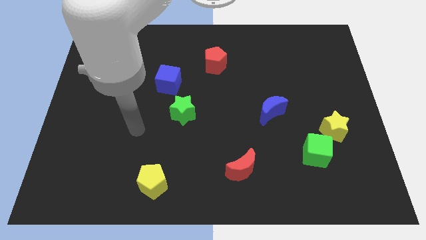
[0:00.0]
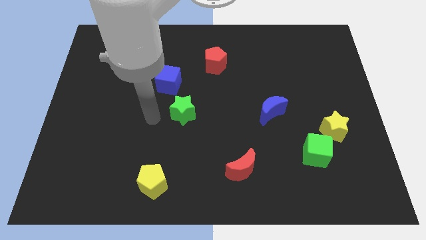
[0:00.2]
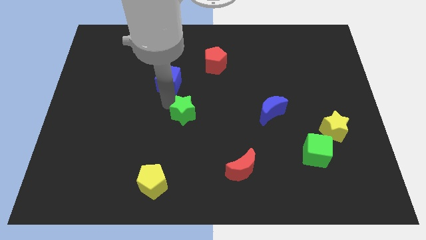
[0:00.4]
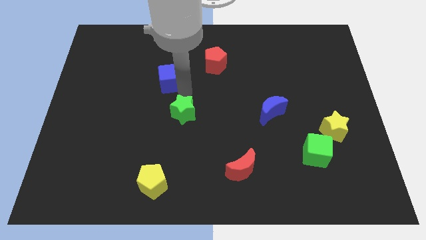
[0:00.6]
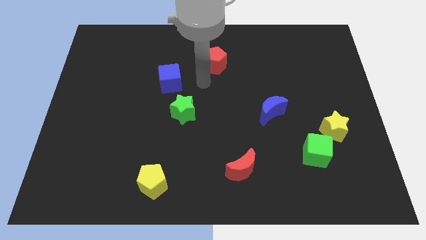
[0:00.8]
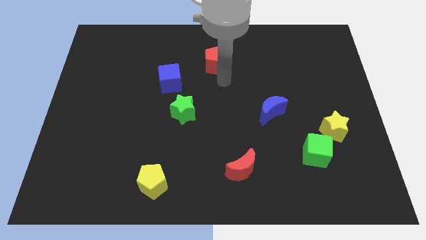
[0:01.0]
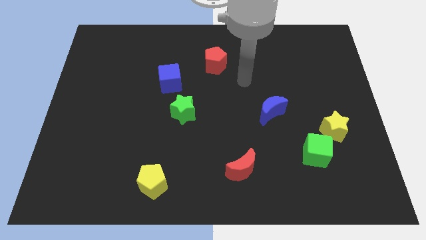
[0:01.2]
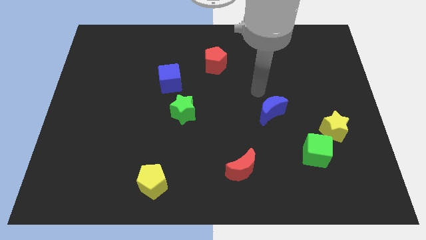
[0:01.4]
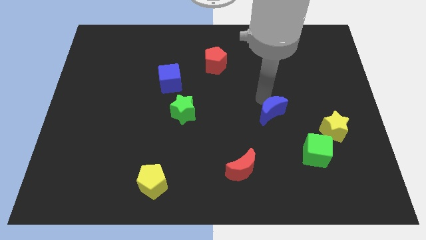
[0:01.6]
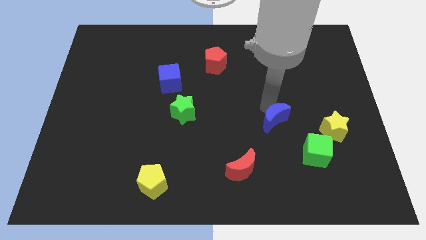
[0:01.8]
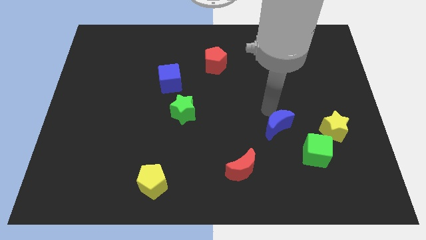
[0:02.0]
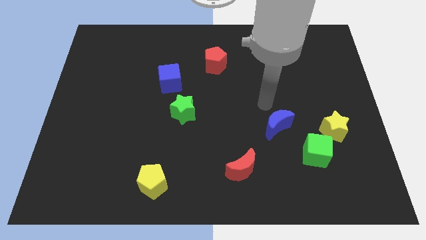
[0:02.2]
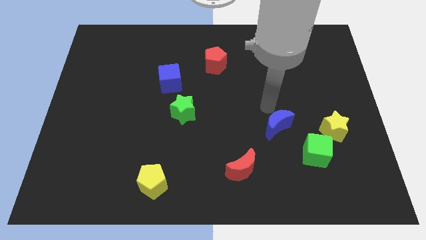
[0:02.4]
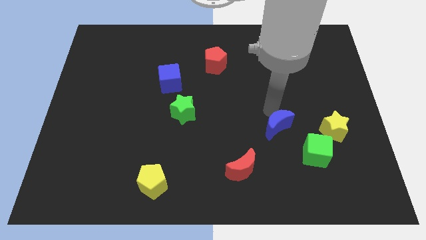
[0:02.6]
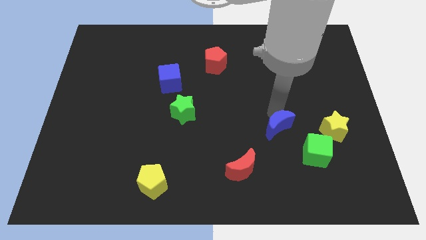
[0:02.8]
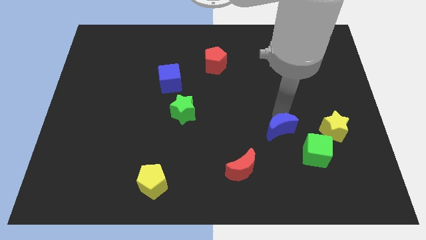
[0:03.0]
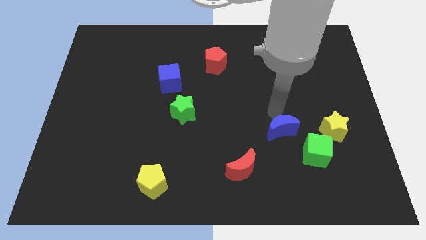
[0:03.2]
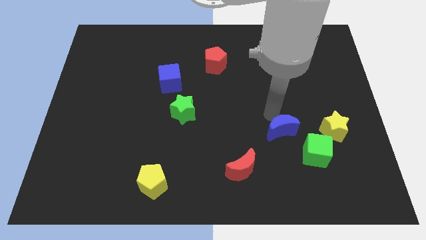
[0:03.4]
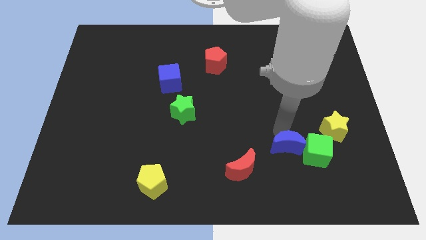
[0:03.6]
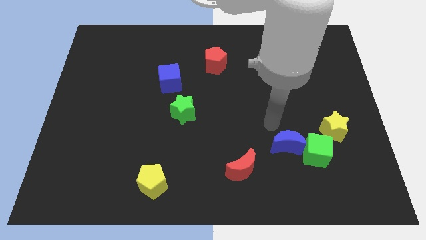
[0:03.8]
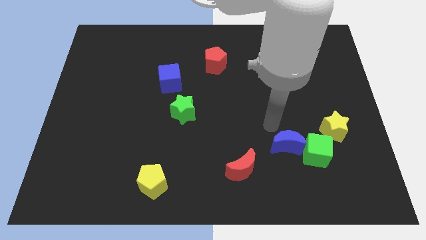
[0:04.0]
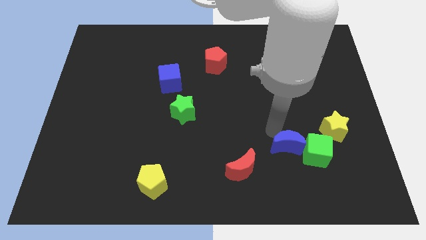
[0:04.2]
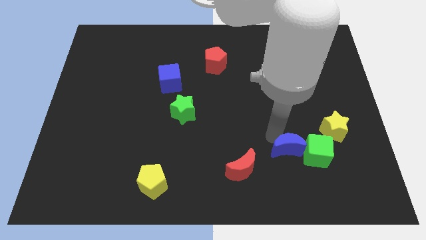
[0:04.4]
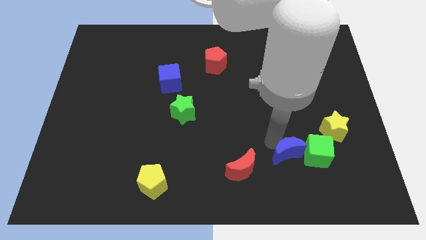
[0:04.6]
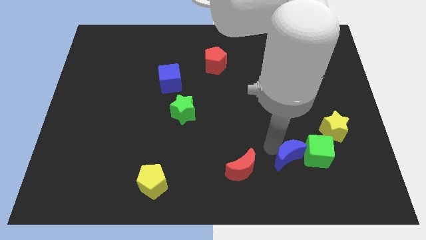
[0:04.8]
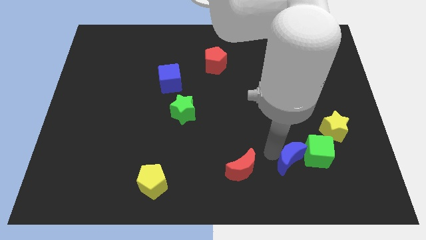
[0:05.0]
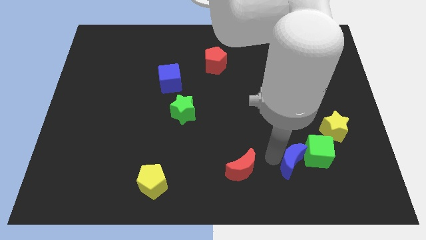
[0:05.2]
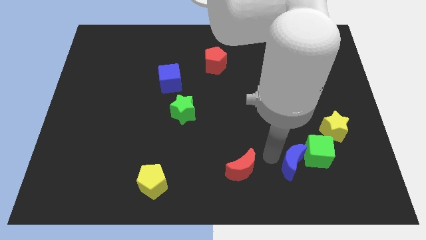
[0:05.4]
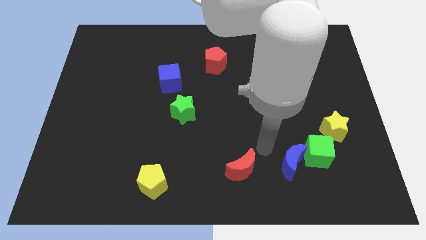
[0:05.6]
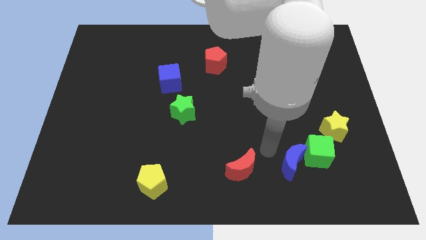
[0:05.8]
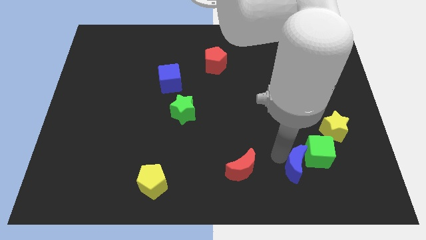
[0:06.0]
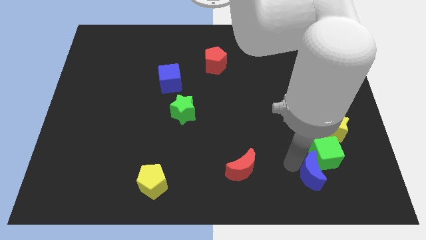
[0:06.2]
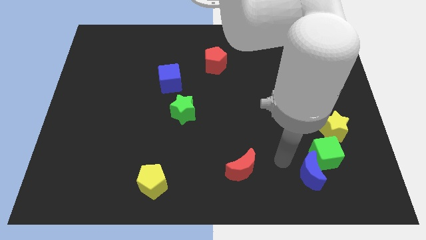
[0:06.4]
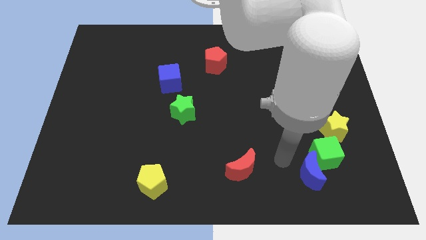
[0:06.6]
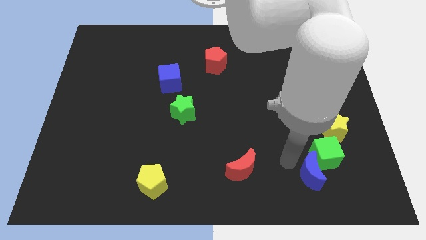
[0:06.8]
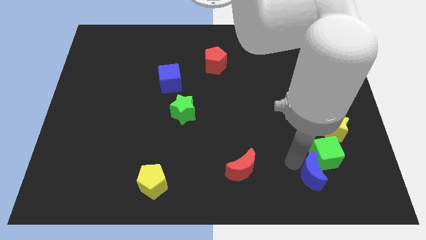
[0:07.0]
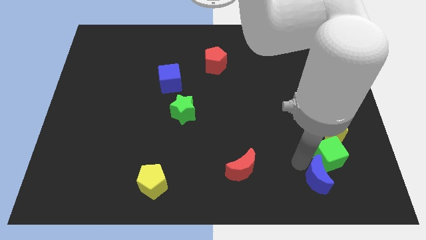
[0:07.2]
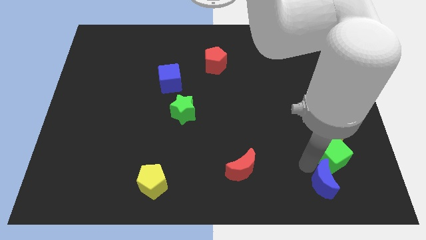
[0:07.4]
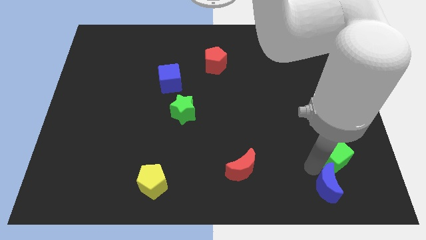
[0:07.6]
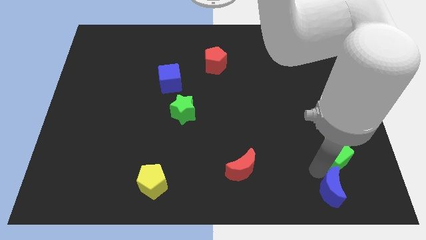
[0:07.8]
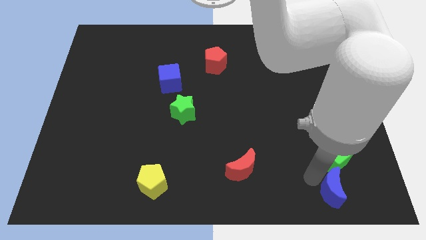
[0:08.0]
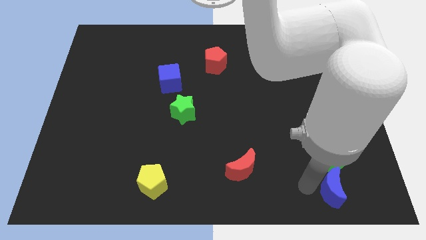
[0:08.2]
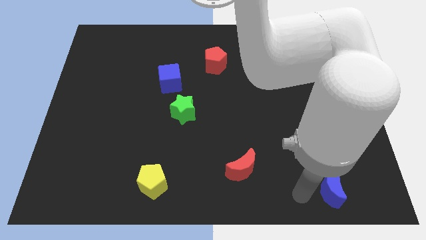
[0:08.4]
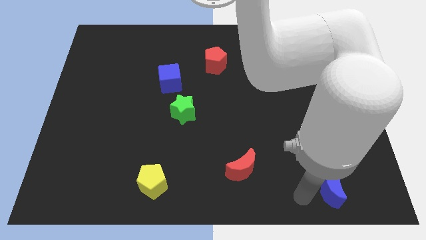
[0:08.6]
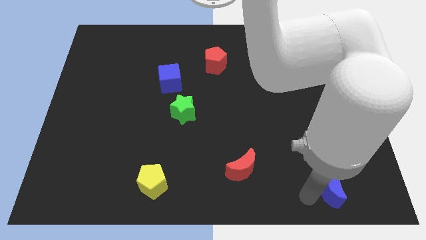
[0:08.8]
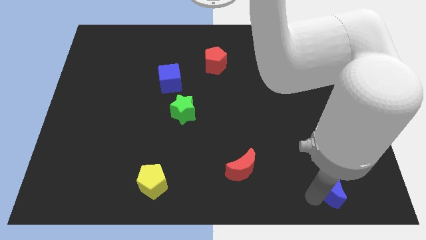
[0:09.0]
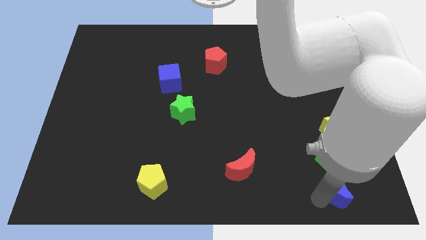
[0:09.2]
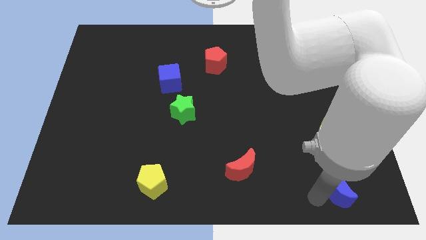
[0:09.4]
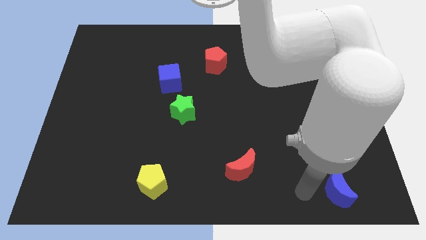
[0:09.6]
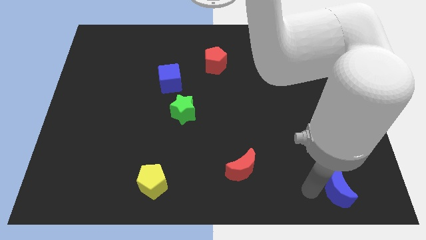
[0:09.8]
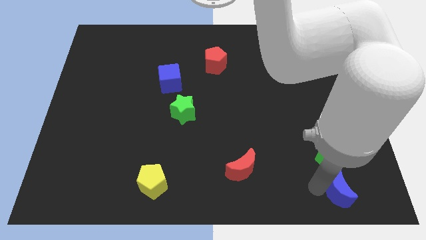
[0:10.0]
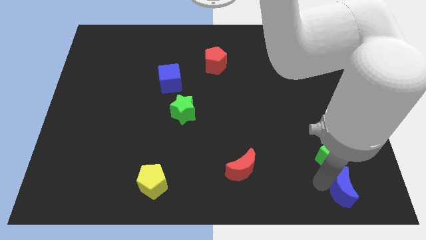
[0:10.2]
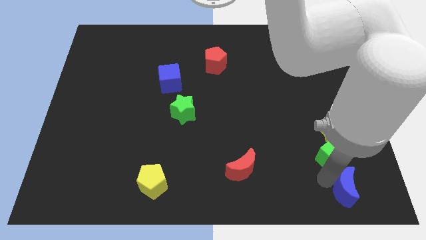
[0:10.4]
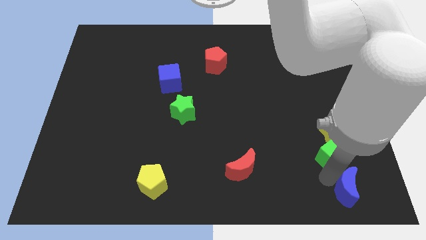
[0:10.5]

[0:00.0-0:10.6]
move the blue moon to the bottom right corner

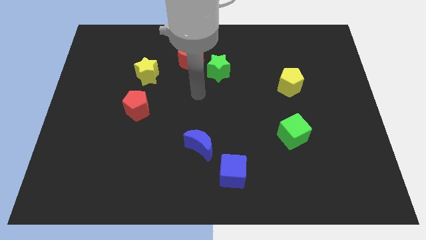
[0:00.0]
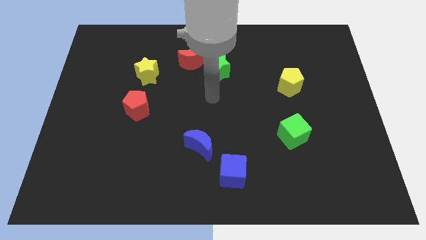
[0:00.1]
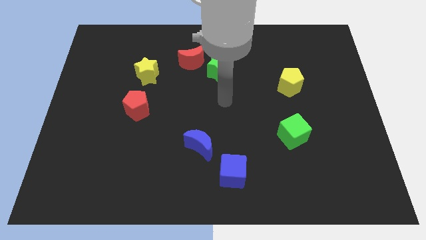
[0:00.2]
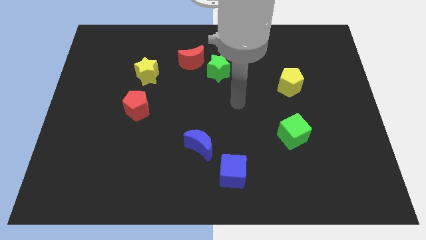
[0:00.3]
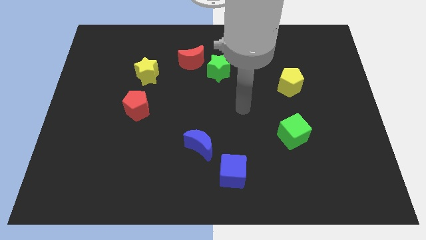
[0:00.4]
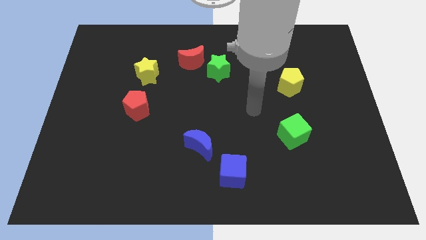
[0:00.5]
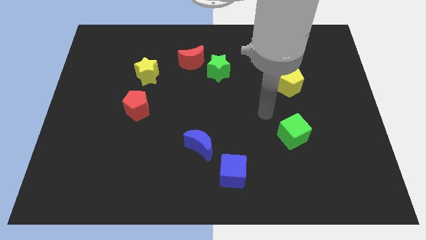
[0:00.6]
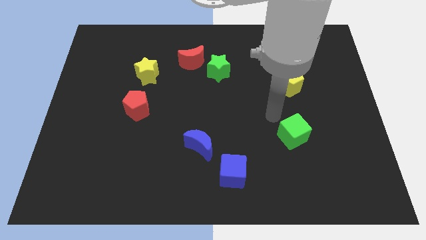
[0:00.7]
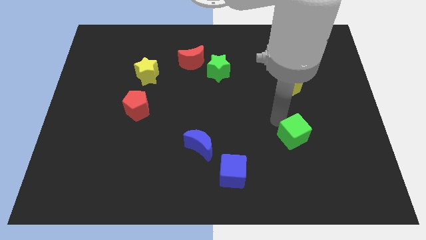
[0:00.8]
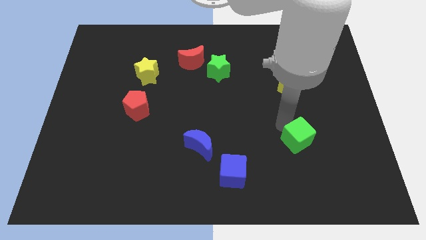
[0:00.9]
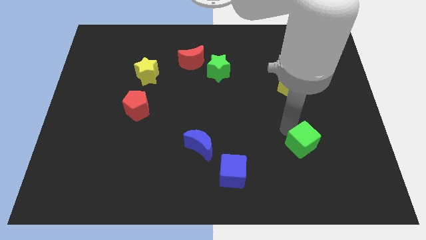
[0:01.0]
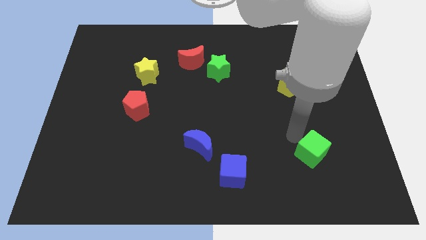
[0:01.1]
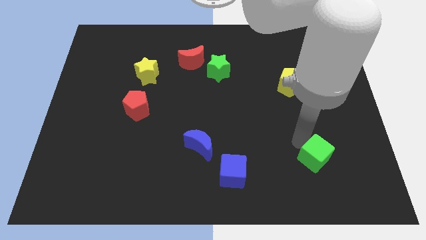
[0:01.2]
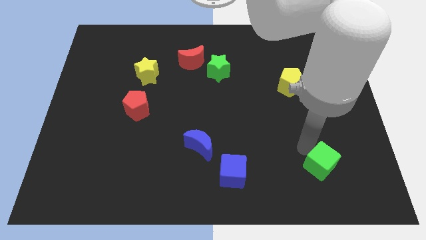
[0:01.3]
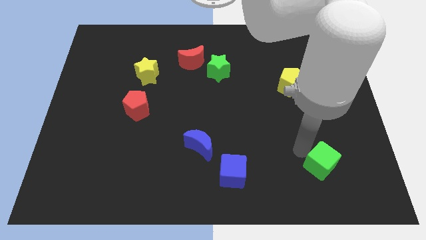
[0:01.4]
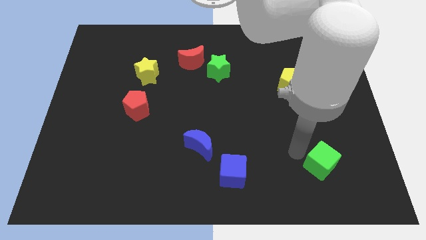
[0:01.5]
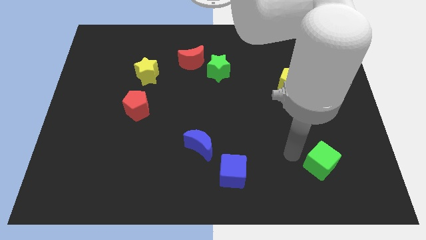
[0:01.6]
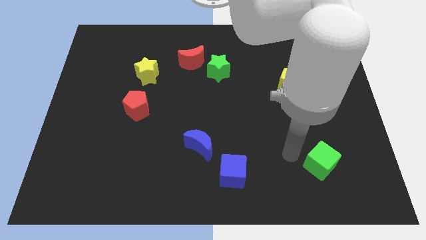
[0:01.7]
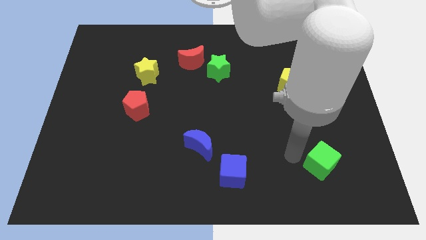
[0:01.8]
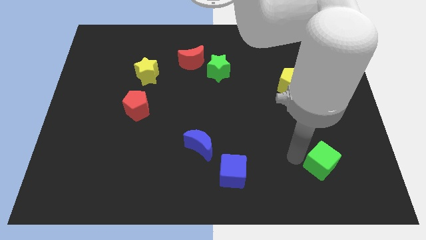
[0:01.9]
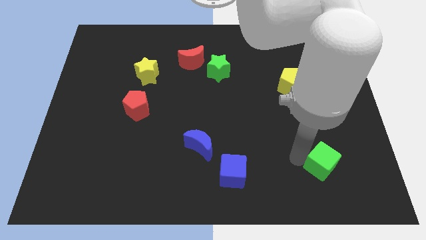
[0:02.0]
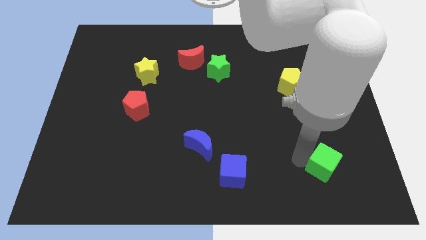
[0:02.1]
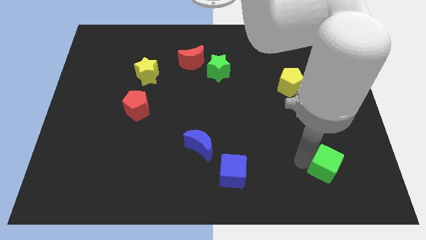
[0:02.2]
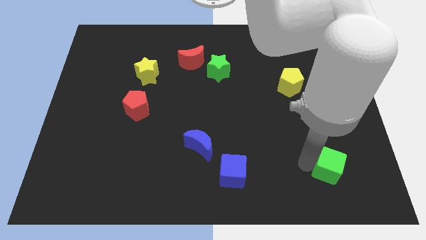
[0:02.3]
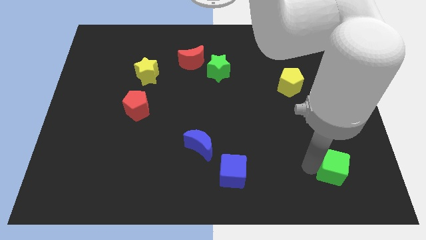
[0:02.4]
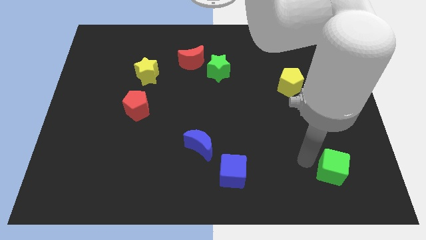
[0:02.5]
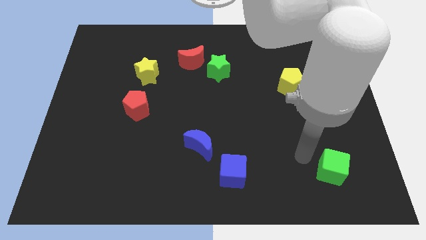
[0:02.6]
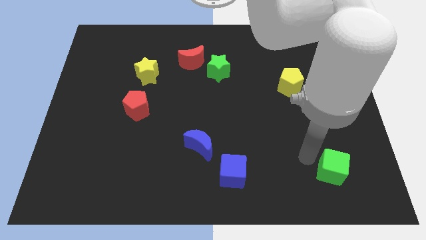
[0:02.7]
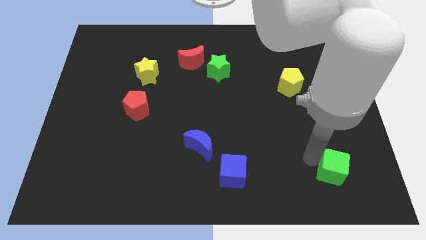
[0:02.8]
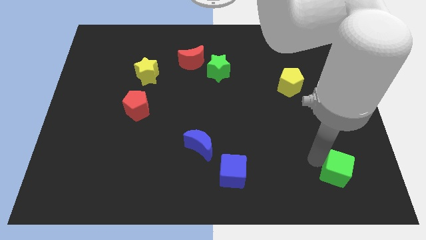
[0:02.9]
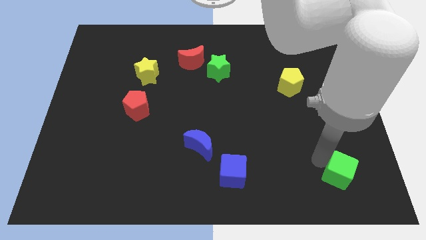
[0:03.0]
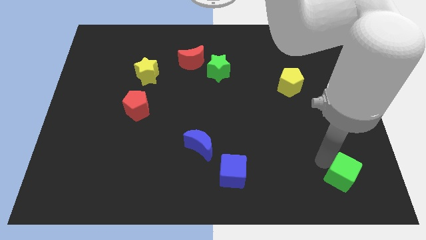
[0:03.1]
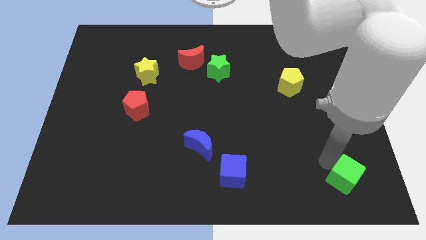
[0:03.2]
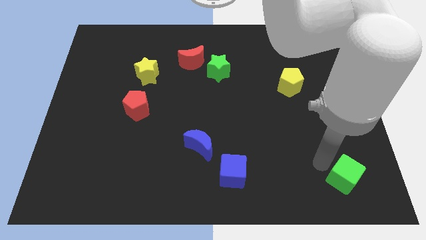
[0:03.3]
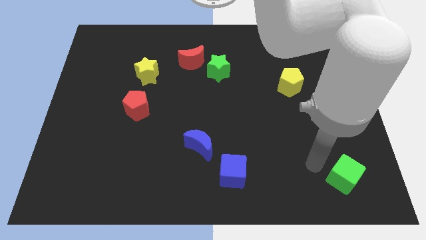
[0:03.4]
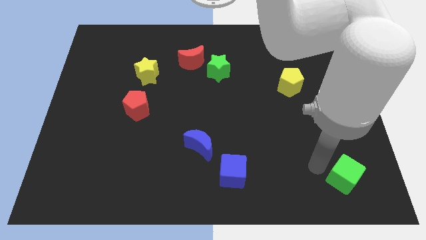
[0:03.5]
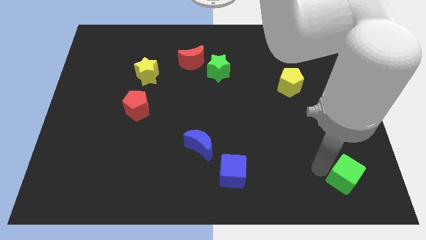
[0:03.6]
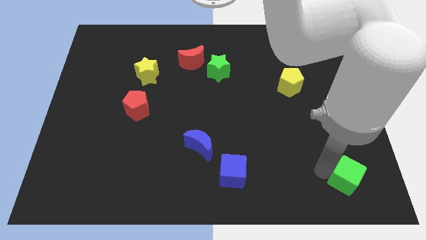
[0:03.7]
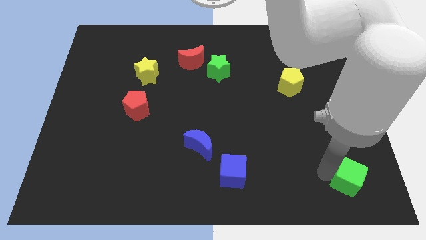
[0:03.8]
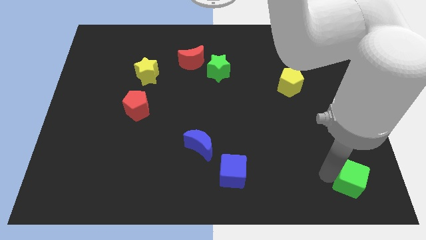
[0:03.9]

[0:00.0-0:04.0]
slide the green cube to the bottom right
